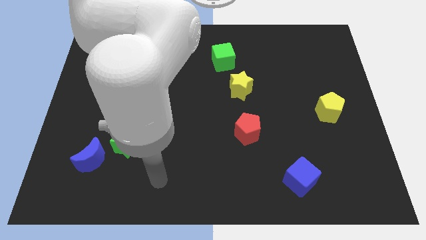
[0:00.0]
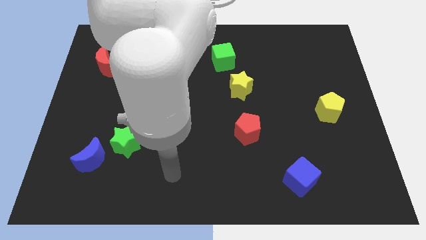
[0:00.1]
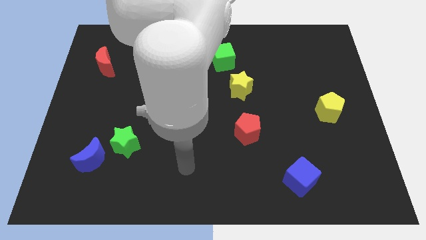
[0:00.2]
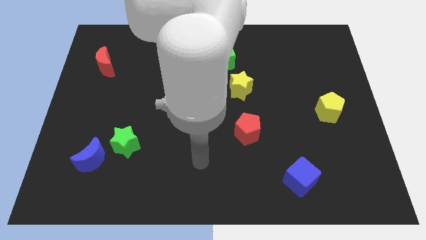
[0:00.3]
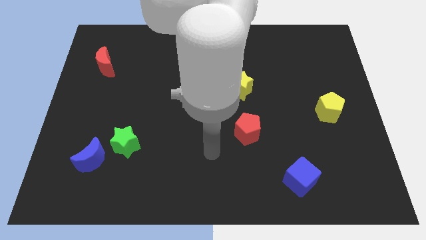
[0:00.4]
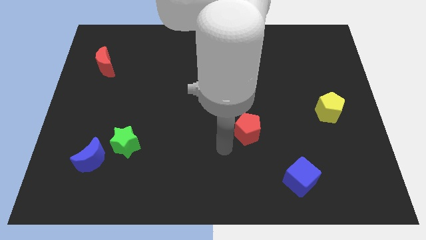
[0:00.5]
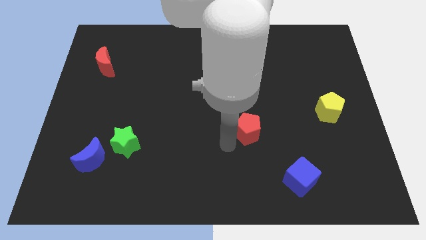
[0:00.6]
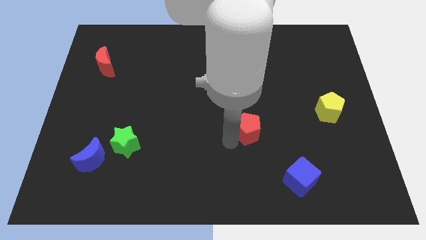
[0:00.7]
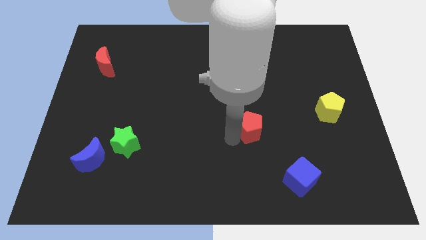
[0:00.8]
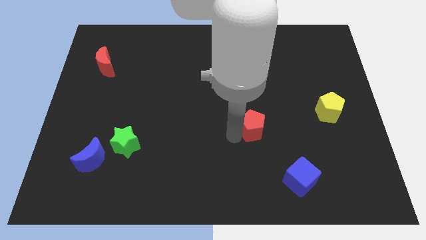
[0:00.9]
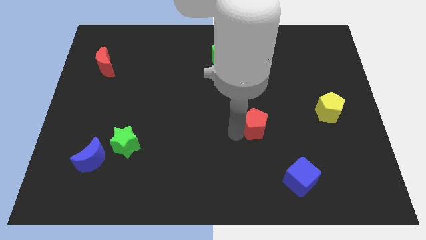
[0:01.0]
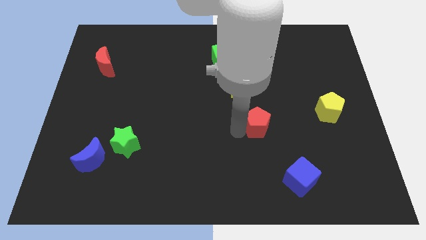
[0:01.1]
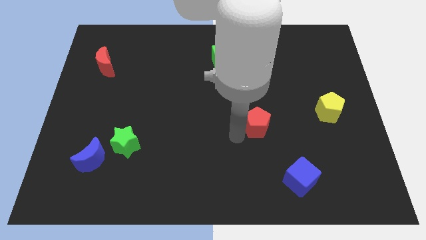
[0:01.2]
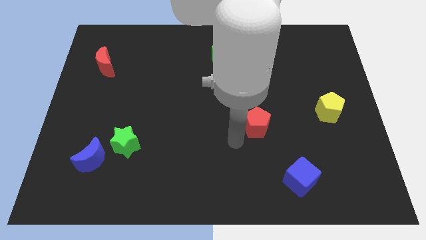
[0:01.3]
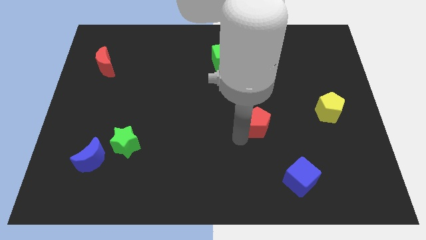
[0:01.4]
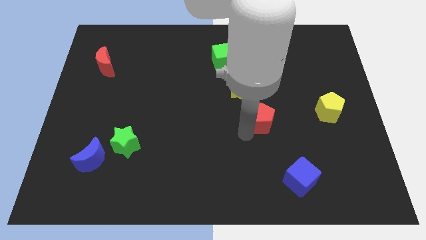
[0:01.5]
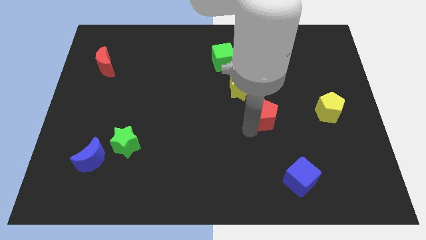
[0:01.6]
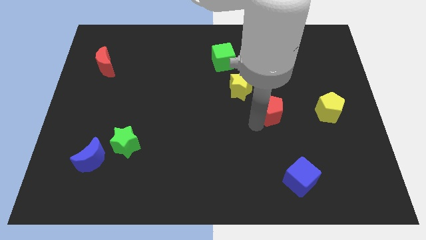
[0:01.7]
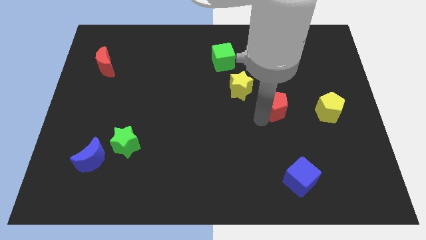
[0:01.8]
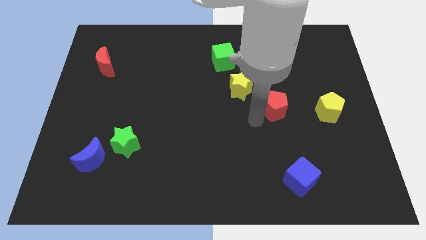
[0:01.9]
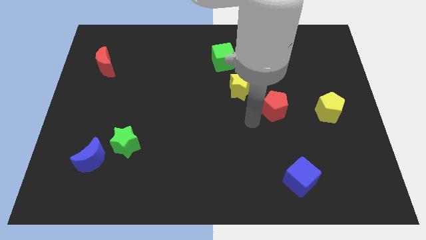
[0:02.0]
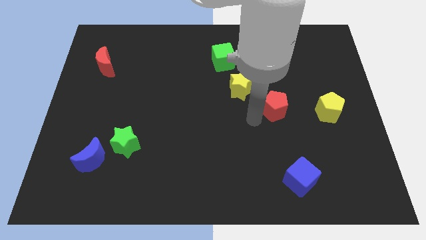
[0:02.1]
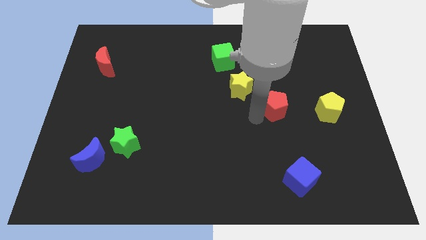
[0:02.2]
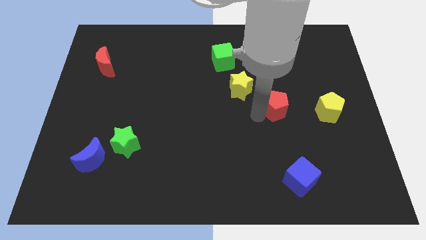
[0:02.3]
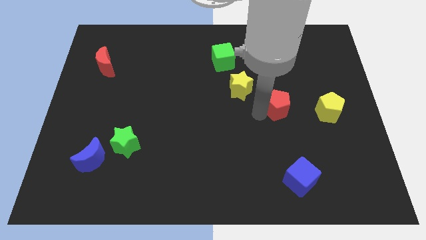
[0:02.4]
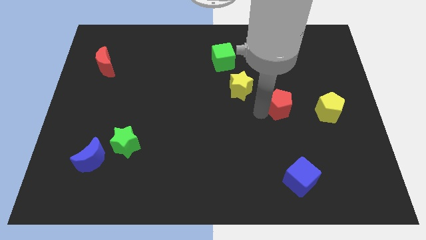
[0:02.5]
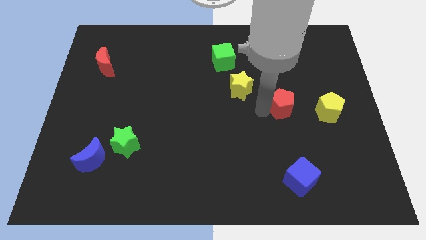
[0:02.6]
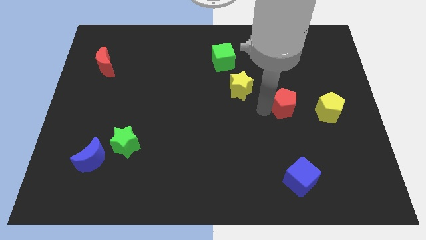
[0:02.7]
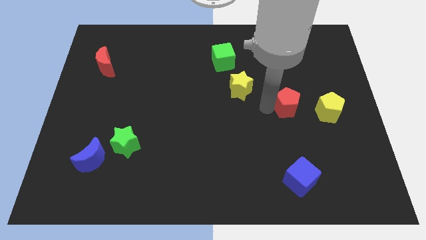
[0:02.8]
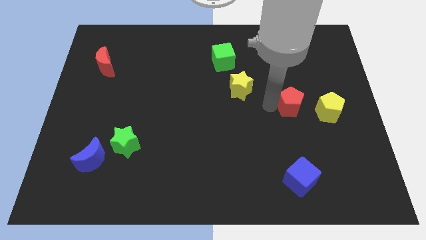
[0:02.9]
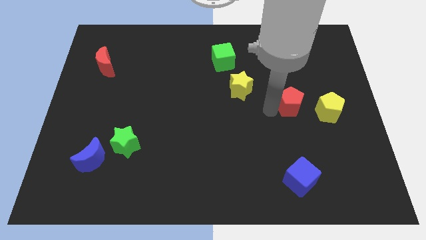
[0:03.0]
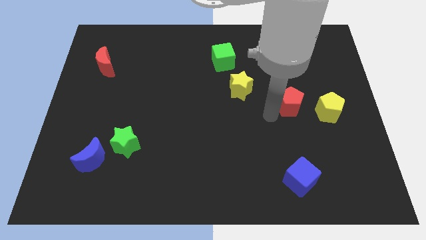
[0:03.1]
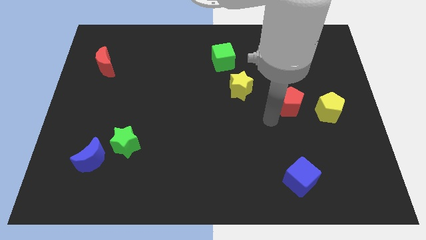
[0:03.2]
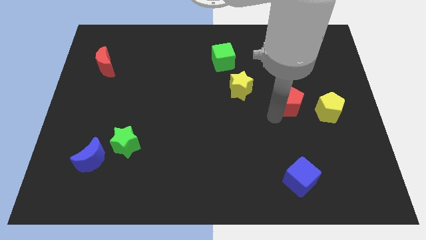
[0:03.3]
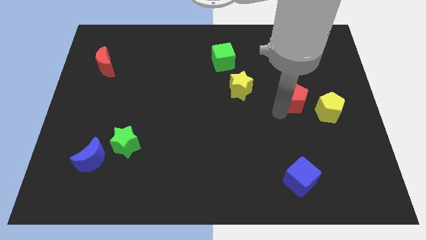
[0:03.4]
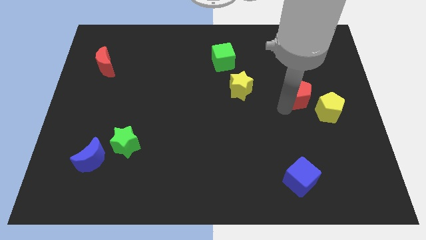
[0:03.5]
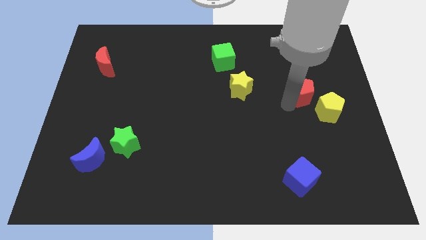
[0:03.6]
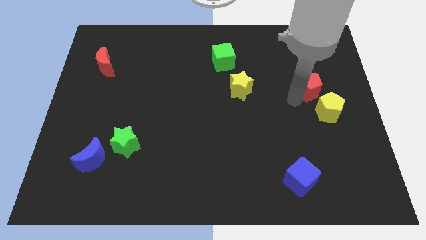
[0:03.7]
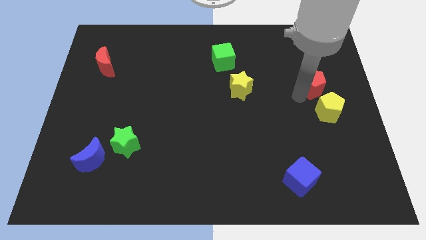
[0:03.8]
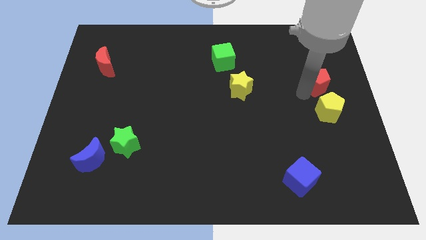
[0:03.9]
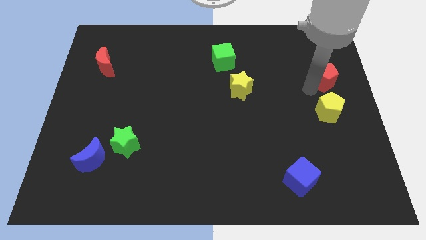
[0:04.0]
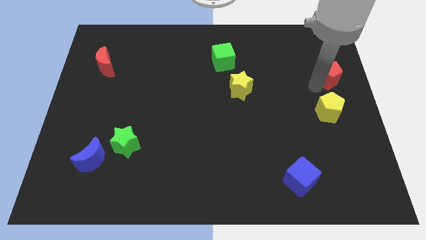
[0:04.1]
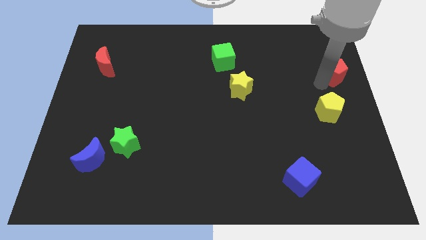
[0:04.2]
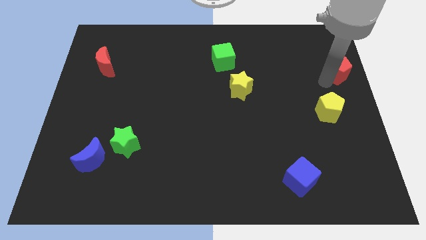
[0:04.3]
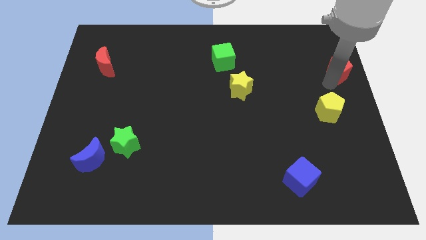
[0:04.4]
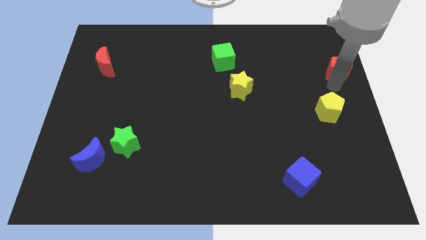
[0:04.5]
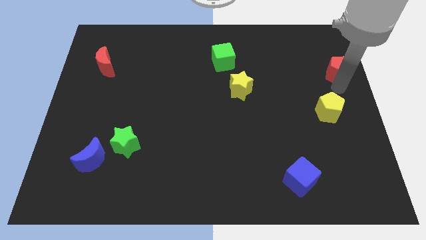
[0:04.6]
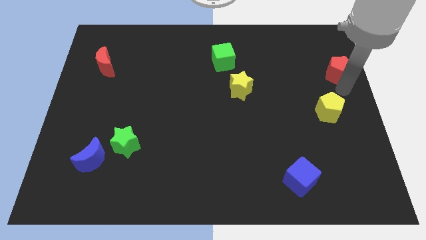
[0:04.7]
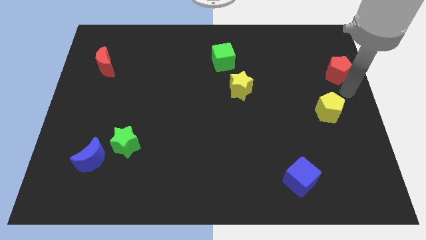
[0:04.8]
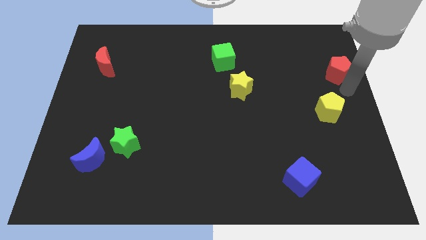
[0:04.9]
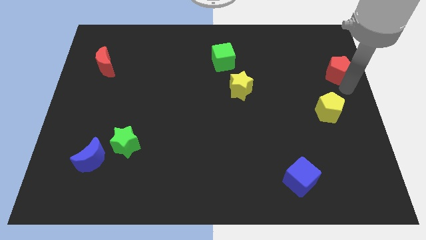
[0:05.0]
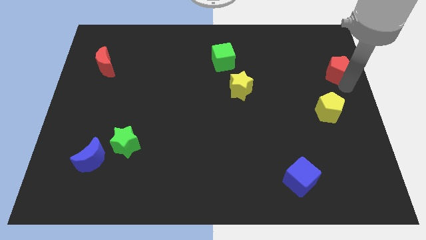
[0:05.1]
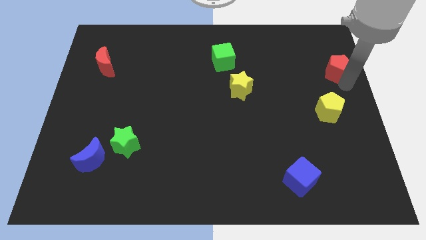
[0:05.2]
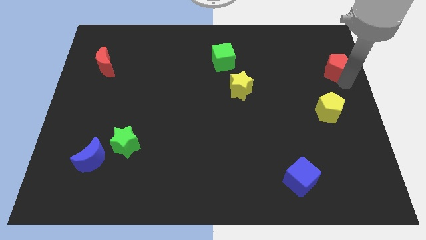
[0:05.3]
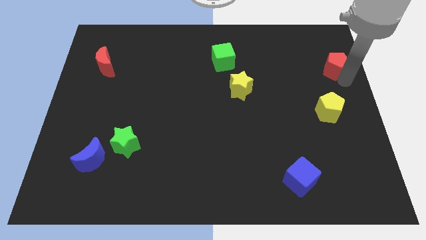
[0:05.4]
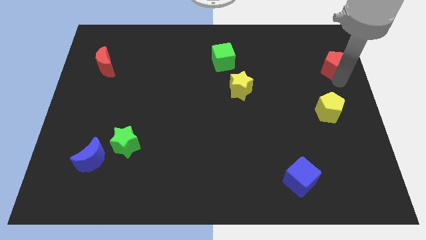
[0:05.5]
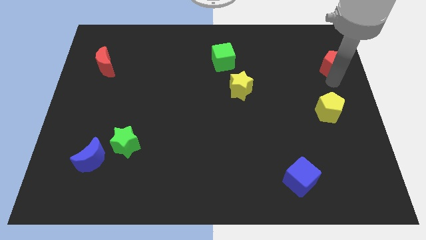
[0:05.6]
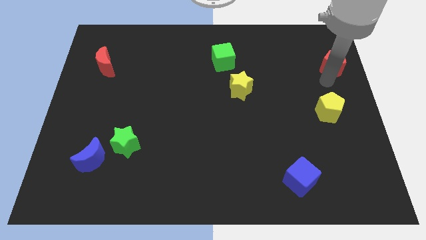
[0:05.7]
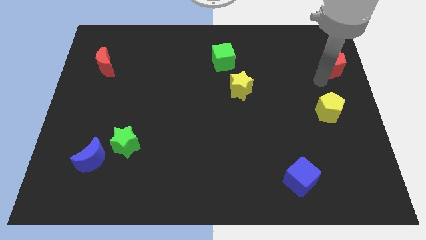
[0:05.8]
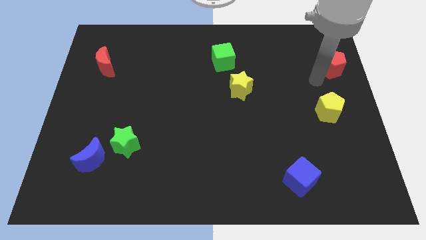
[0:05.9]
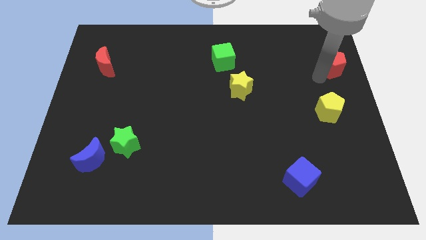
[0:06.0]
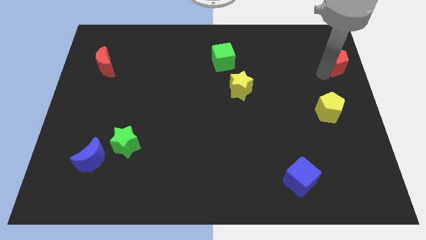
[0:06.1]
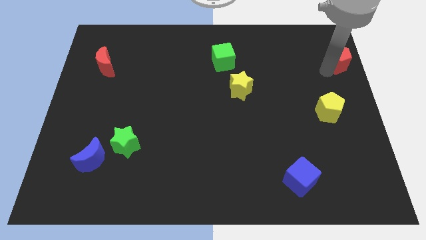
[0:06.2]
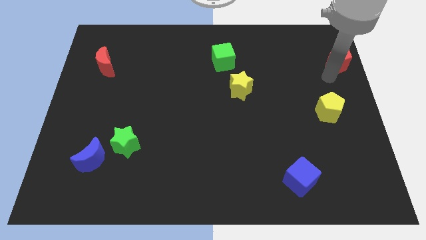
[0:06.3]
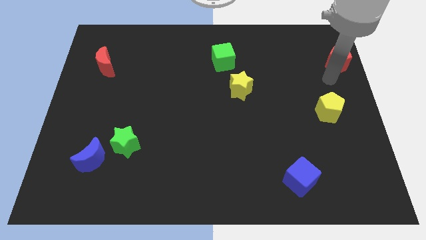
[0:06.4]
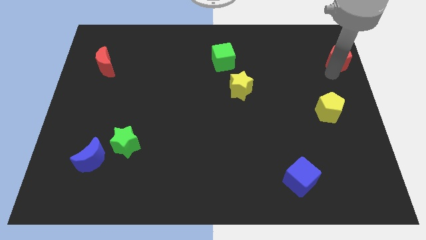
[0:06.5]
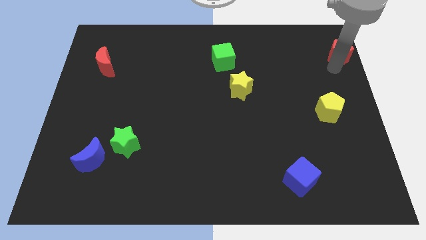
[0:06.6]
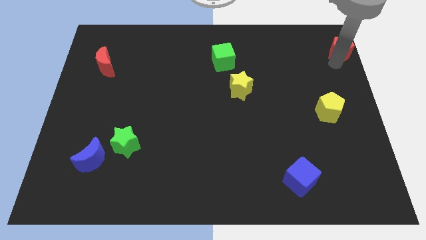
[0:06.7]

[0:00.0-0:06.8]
put the red pentagon to the top right of the board
